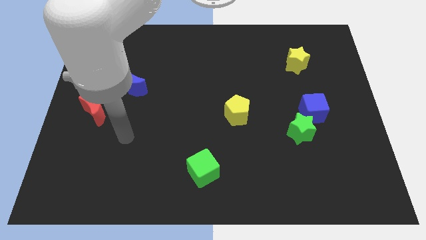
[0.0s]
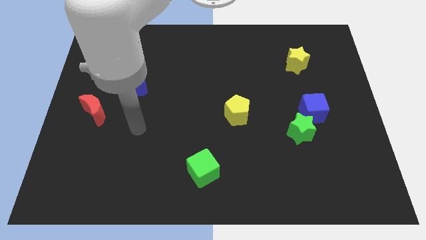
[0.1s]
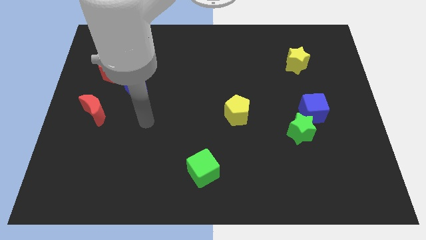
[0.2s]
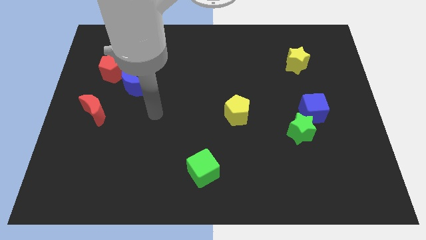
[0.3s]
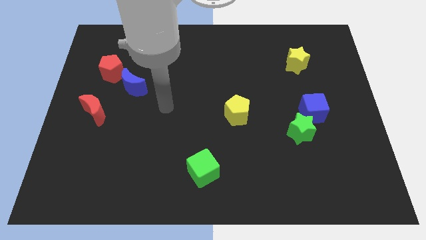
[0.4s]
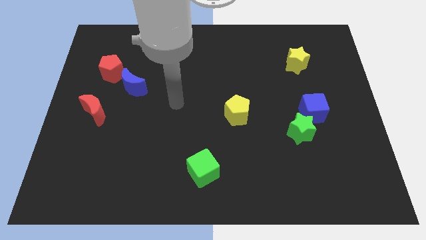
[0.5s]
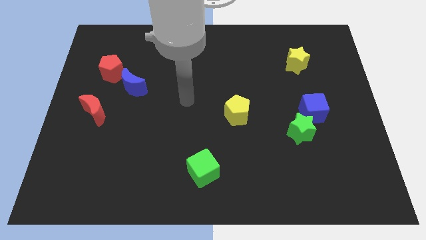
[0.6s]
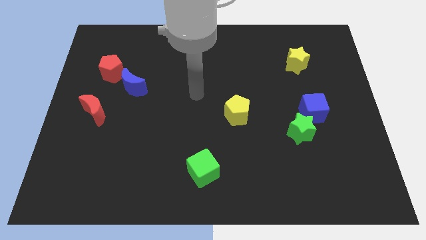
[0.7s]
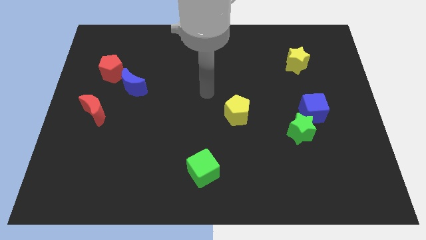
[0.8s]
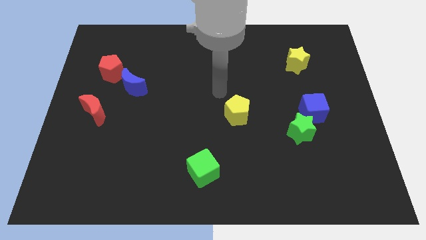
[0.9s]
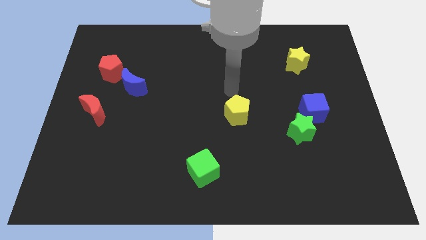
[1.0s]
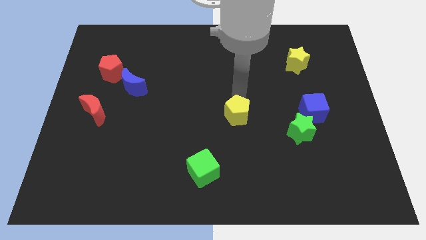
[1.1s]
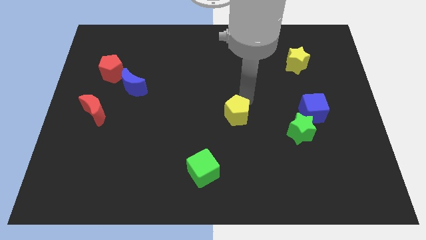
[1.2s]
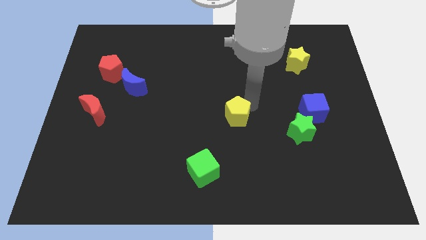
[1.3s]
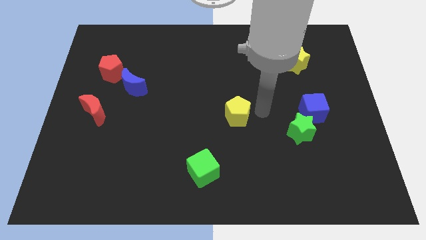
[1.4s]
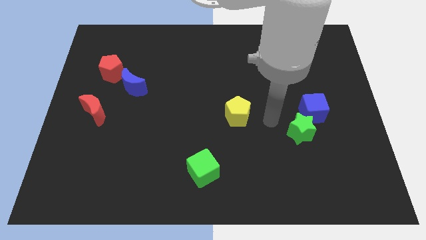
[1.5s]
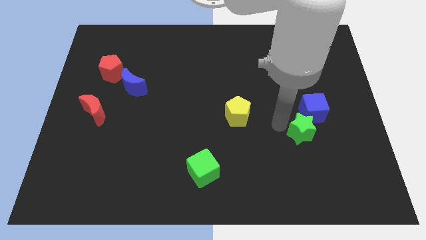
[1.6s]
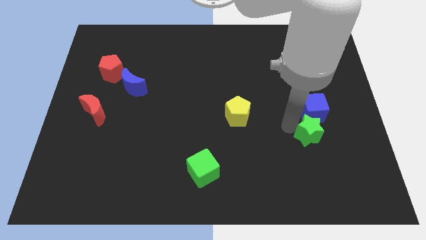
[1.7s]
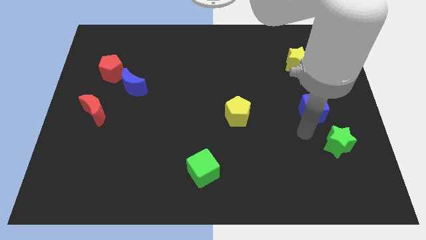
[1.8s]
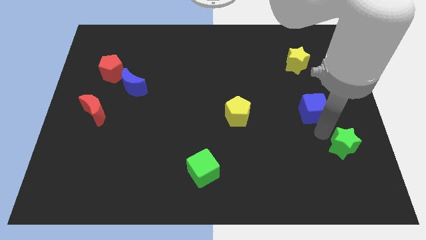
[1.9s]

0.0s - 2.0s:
move the blue cube away from the green star

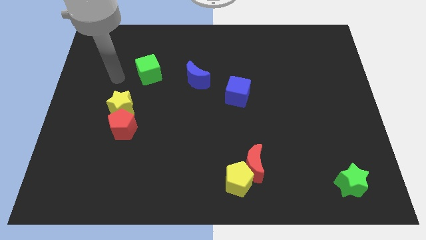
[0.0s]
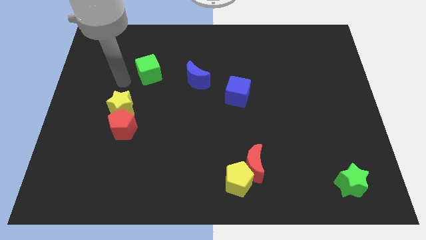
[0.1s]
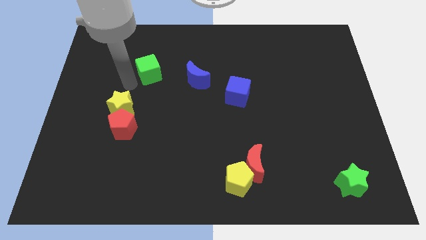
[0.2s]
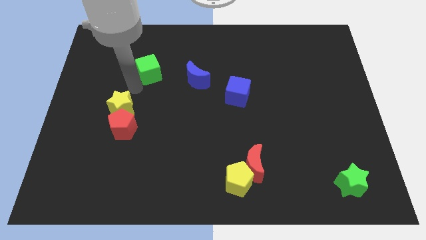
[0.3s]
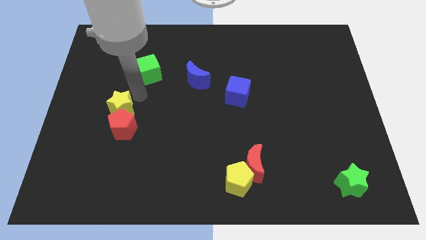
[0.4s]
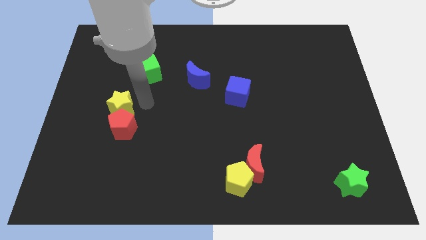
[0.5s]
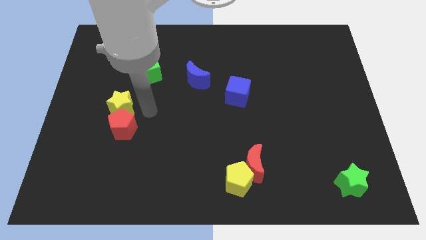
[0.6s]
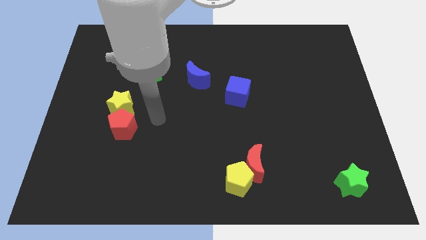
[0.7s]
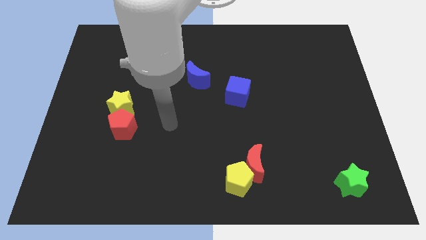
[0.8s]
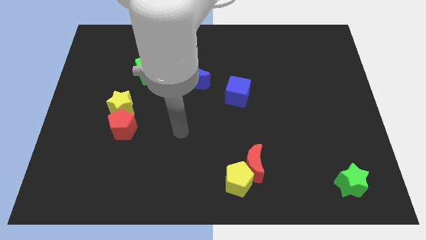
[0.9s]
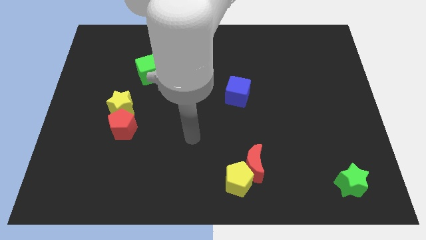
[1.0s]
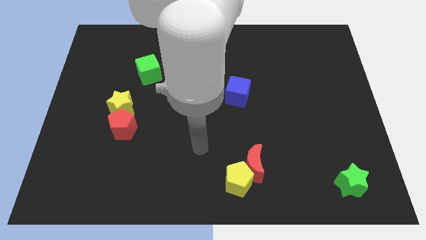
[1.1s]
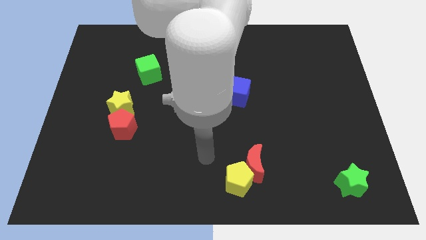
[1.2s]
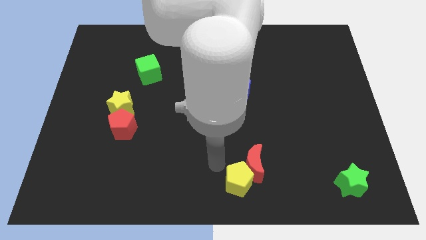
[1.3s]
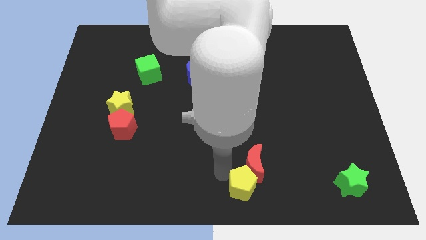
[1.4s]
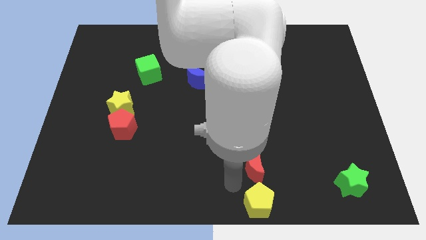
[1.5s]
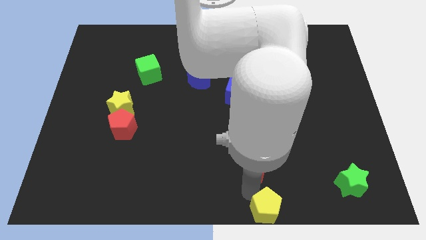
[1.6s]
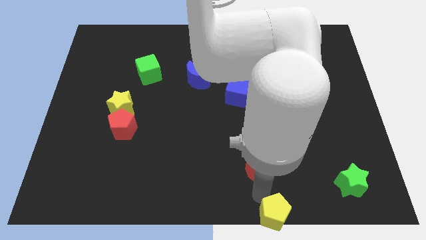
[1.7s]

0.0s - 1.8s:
move the red moon away from the yellow pentagon

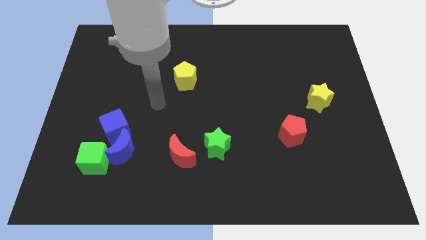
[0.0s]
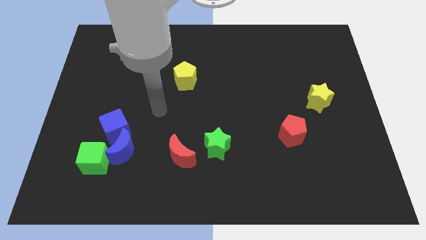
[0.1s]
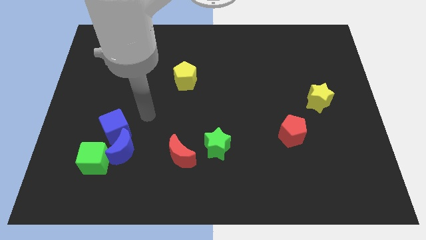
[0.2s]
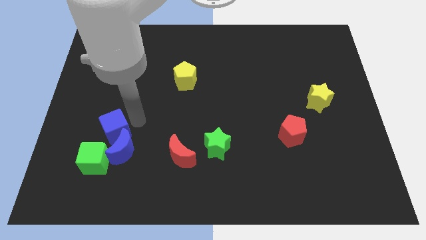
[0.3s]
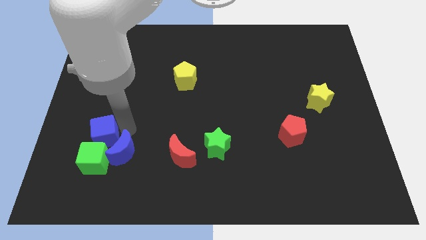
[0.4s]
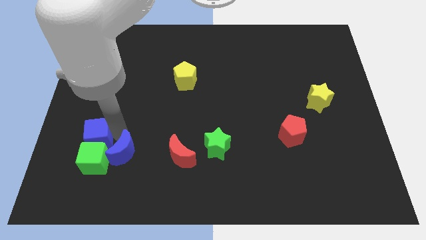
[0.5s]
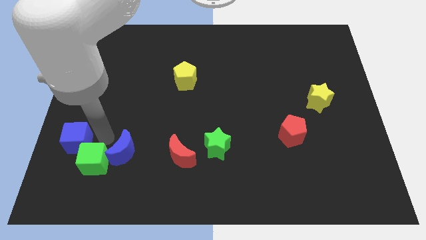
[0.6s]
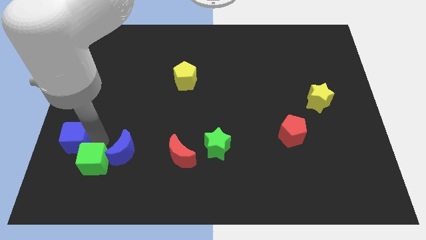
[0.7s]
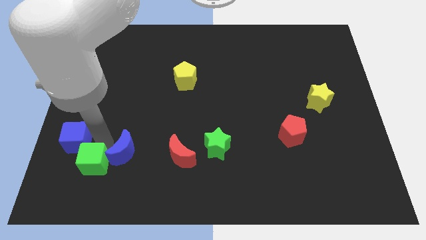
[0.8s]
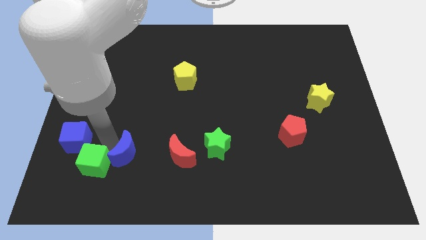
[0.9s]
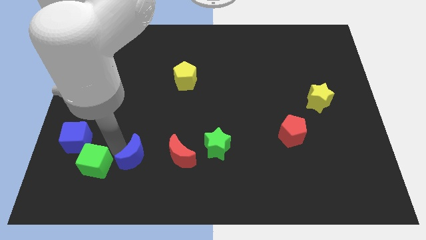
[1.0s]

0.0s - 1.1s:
move the blue moon away from the blue cube and green cube

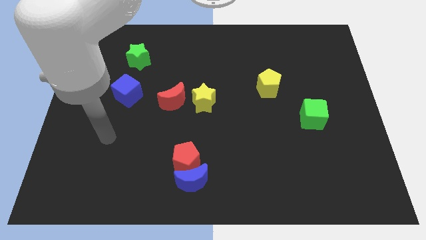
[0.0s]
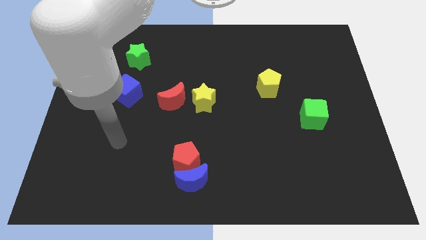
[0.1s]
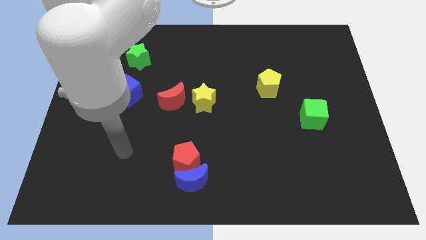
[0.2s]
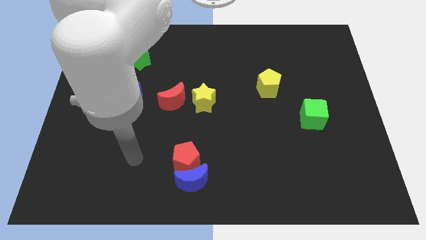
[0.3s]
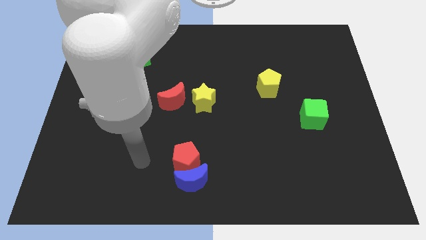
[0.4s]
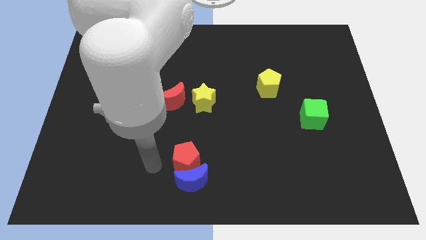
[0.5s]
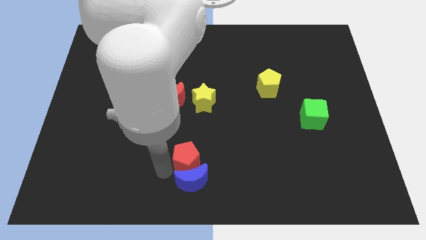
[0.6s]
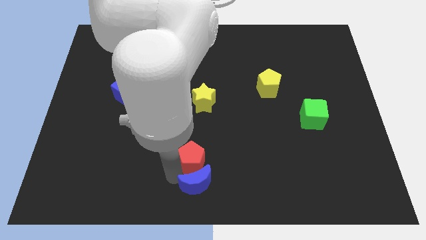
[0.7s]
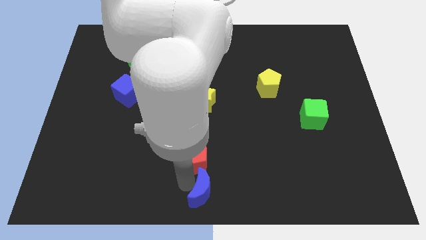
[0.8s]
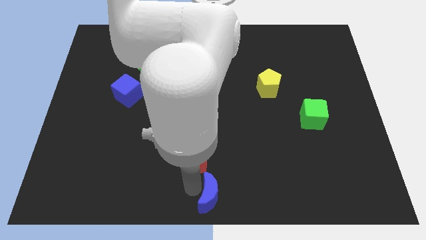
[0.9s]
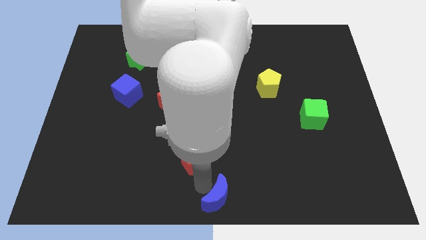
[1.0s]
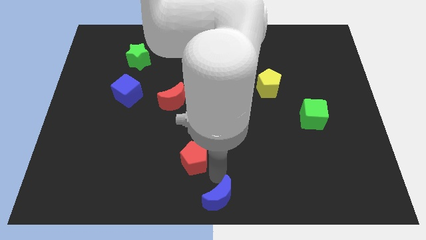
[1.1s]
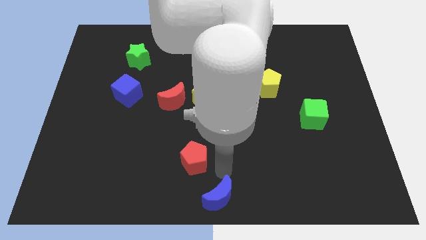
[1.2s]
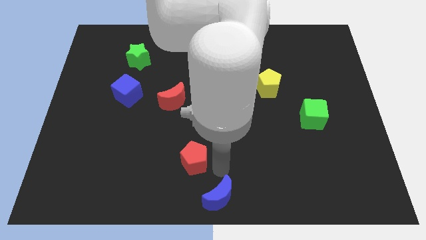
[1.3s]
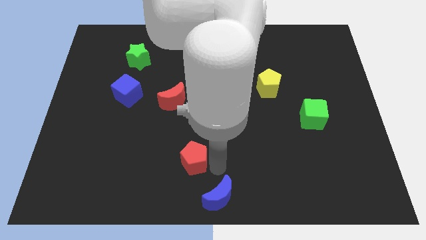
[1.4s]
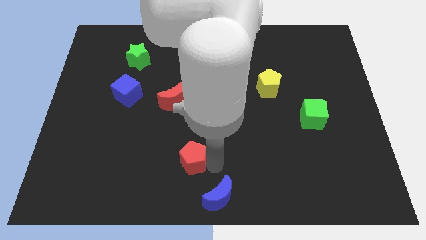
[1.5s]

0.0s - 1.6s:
pull the red pentagon apart from the blue moon

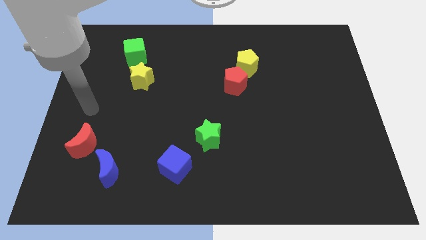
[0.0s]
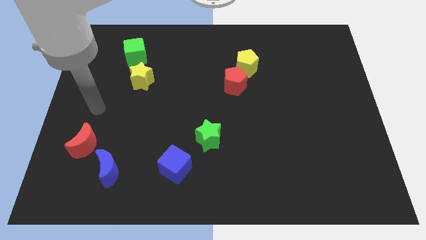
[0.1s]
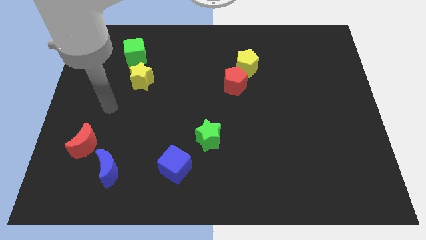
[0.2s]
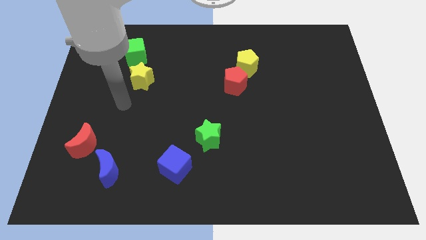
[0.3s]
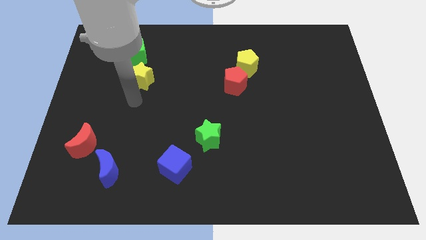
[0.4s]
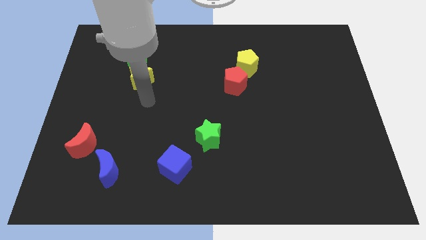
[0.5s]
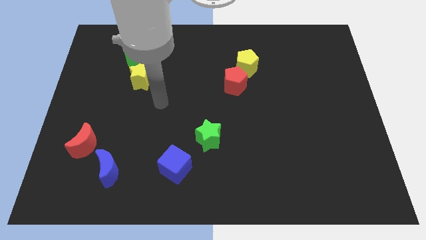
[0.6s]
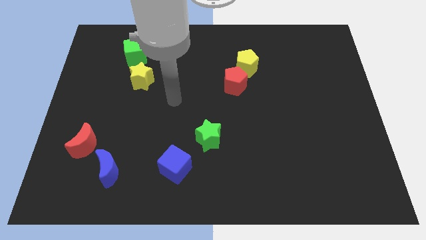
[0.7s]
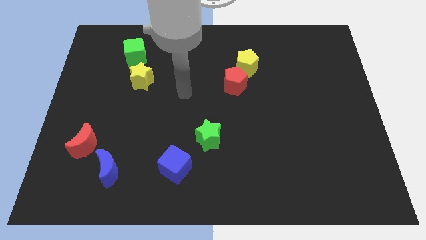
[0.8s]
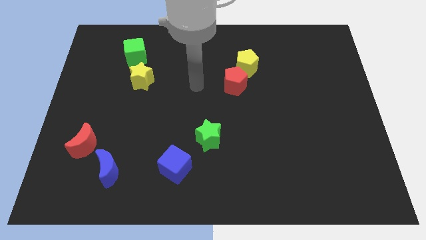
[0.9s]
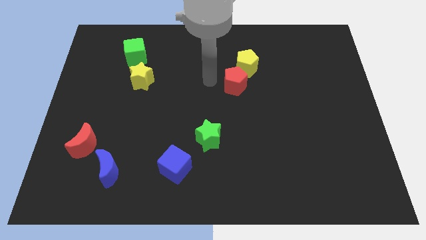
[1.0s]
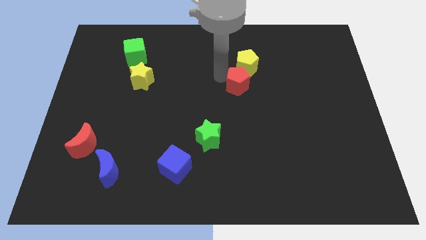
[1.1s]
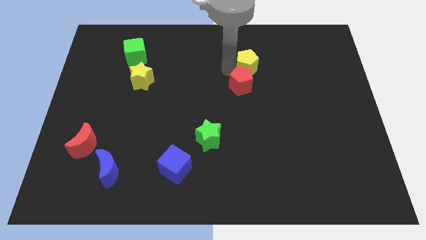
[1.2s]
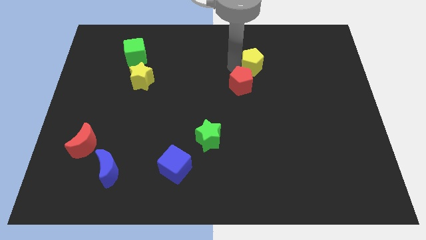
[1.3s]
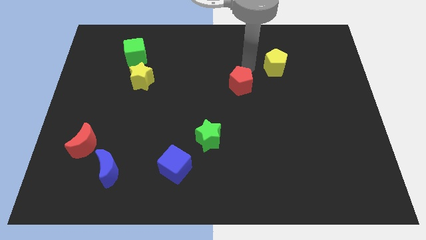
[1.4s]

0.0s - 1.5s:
move the red pentagon away from the yellow pentagon

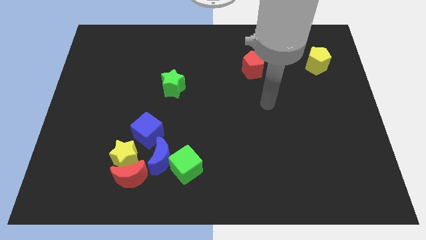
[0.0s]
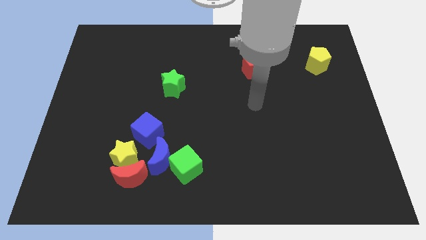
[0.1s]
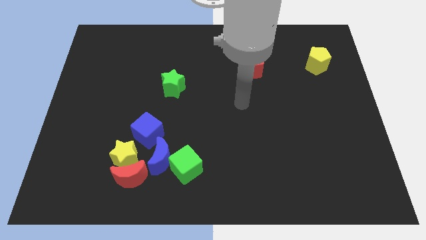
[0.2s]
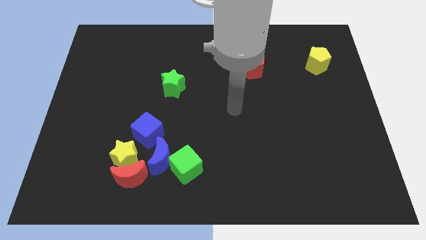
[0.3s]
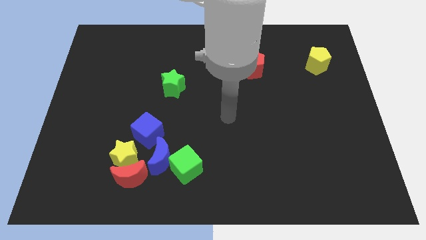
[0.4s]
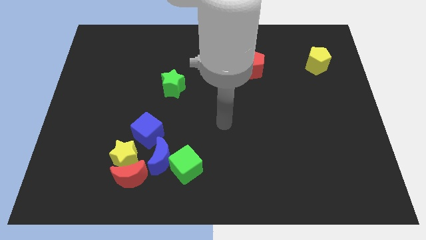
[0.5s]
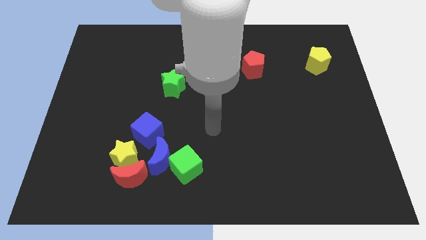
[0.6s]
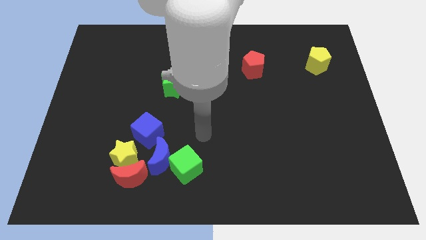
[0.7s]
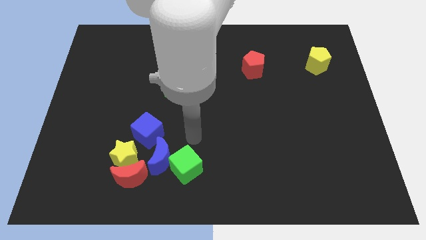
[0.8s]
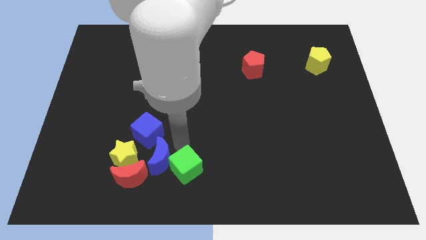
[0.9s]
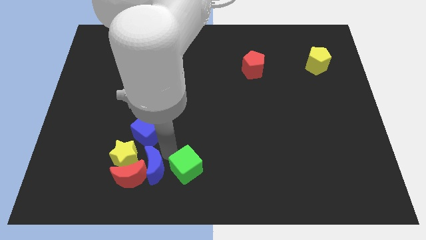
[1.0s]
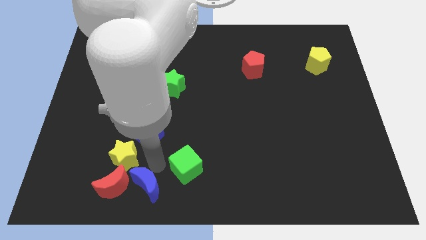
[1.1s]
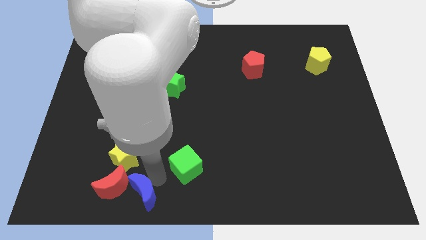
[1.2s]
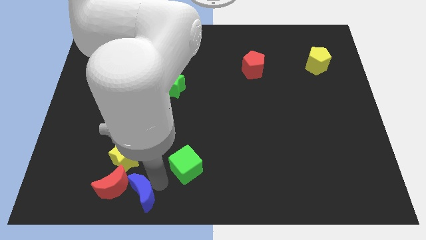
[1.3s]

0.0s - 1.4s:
separate the green cube from the blue moon
